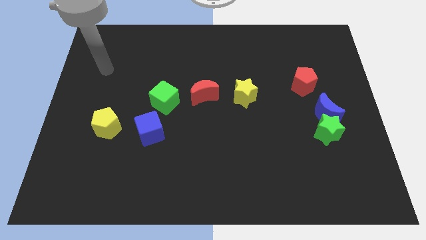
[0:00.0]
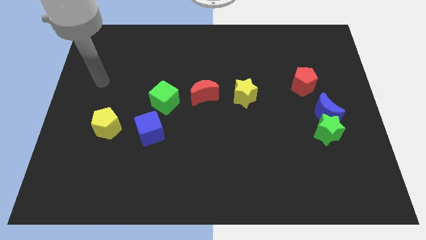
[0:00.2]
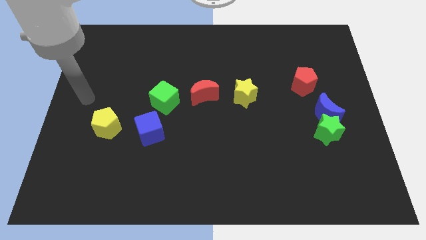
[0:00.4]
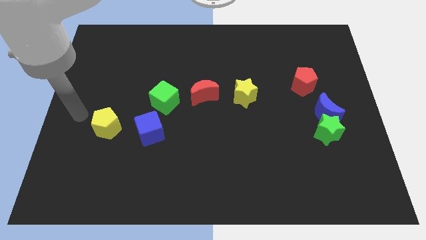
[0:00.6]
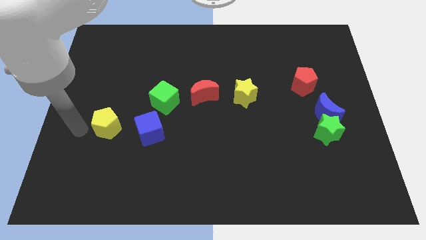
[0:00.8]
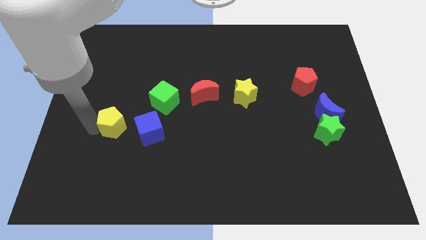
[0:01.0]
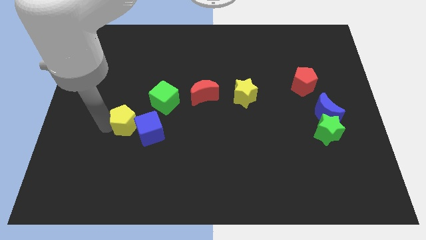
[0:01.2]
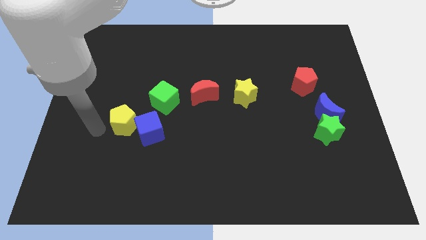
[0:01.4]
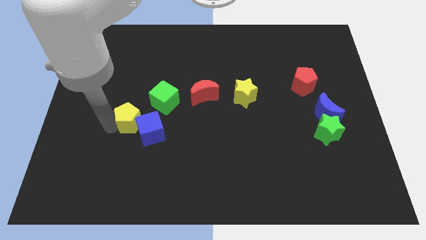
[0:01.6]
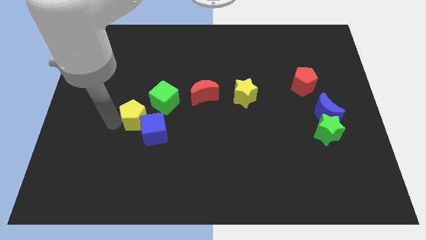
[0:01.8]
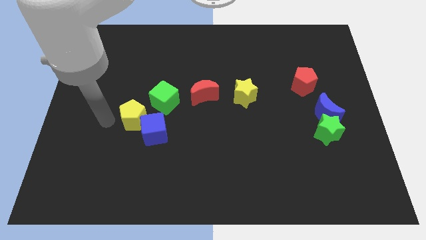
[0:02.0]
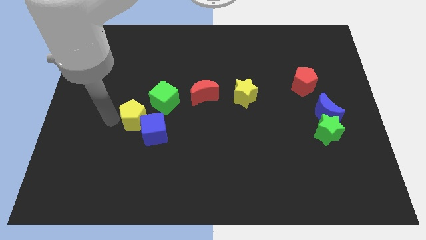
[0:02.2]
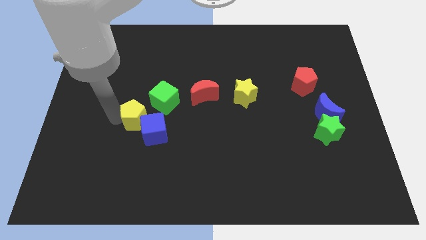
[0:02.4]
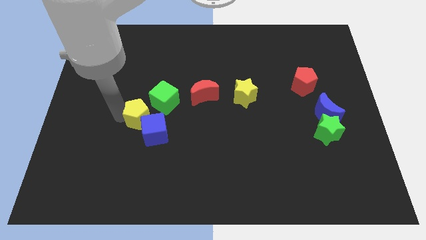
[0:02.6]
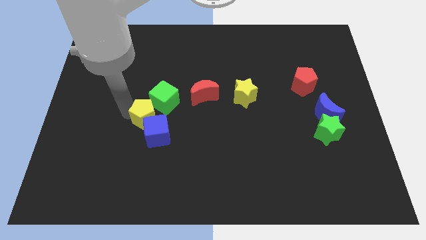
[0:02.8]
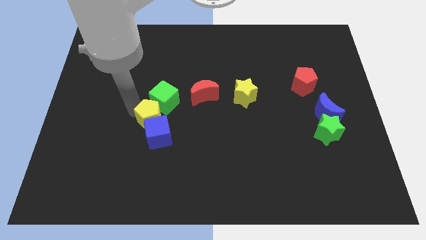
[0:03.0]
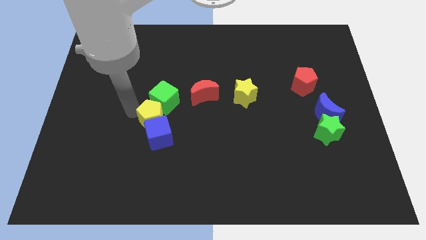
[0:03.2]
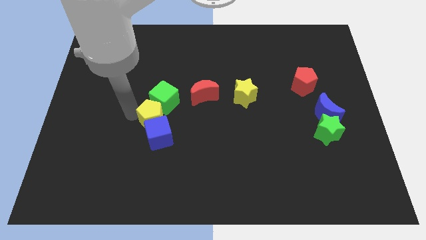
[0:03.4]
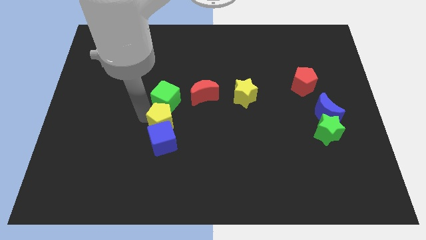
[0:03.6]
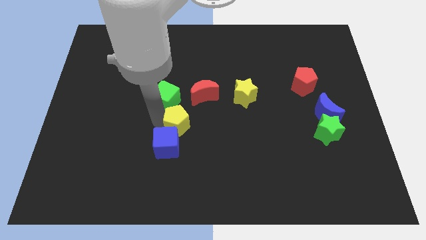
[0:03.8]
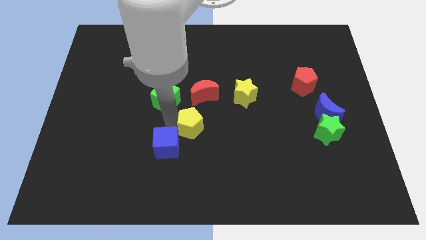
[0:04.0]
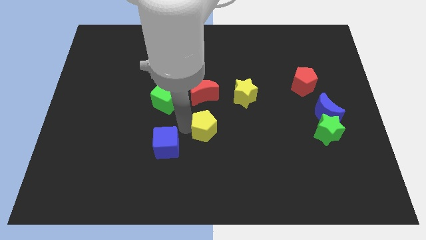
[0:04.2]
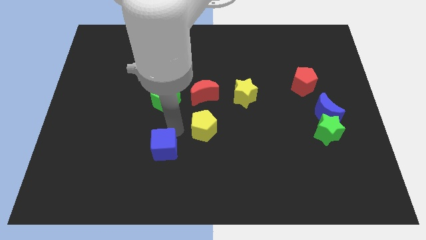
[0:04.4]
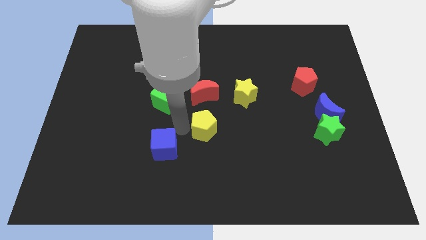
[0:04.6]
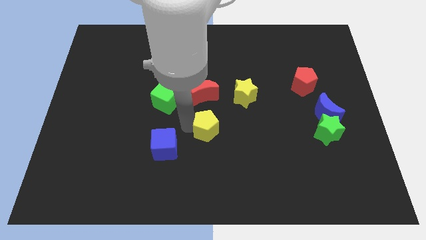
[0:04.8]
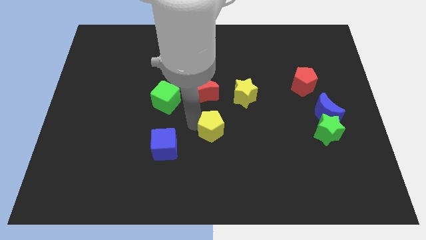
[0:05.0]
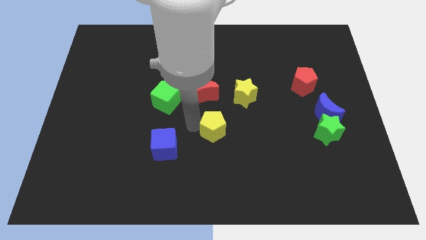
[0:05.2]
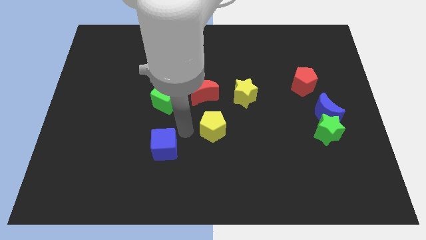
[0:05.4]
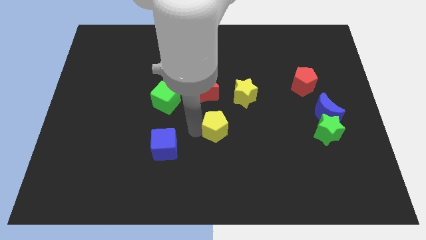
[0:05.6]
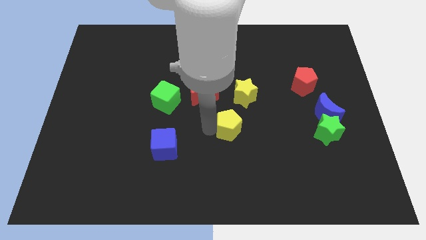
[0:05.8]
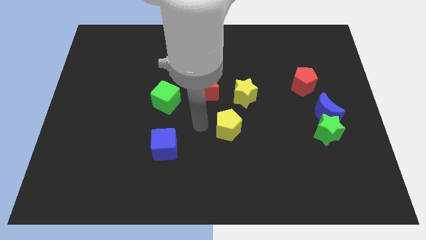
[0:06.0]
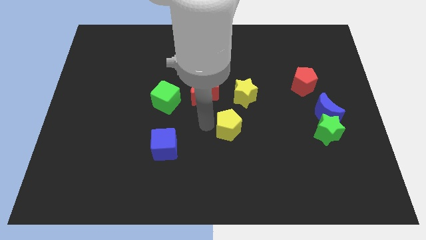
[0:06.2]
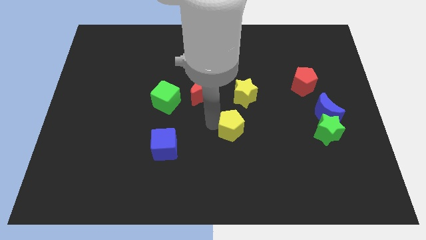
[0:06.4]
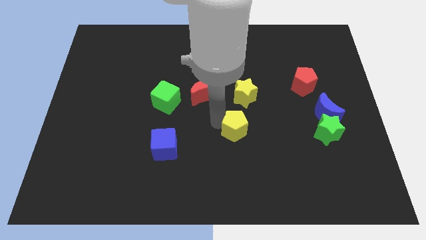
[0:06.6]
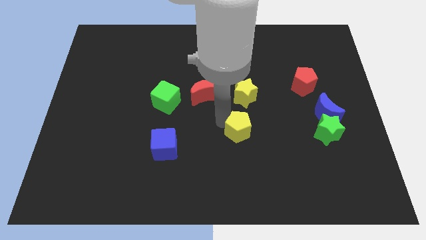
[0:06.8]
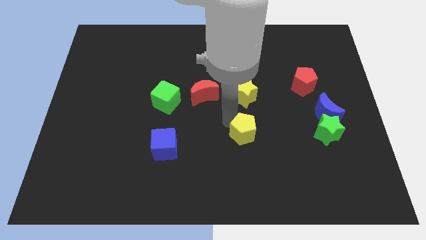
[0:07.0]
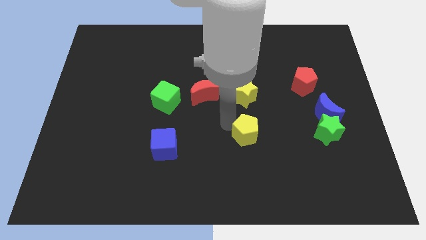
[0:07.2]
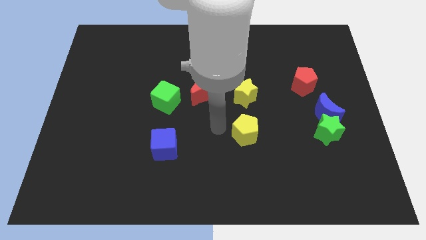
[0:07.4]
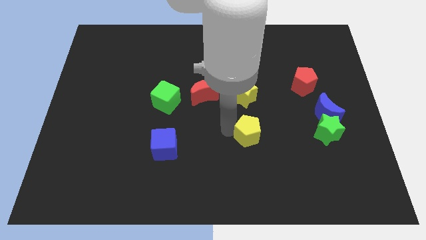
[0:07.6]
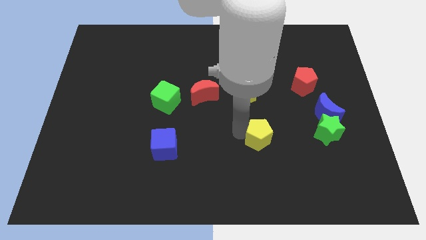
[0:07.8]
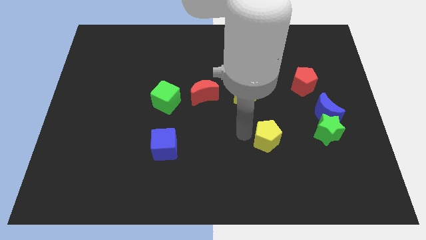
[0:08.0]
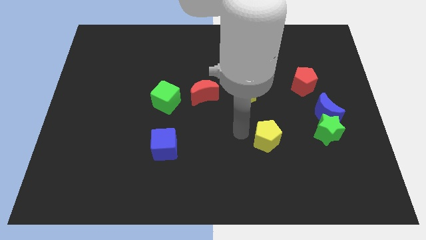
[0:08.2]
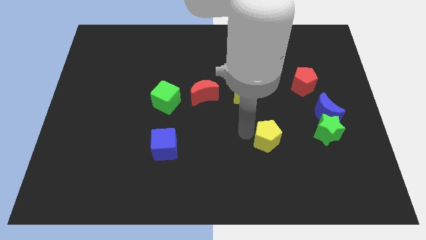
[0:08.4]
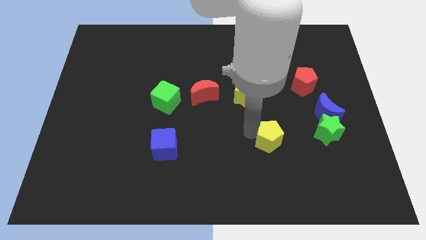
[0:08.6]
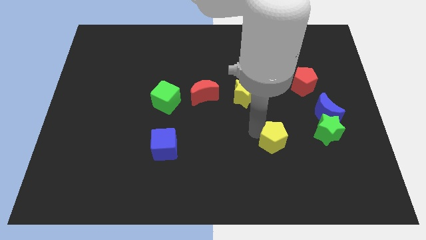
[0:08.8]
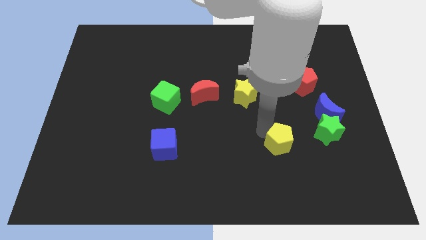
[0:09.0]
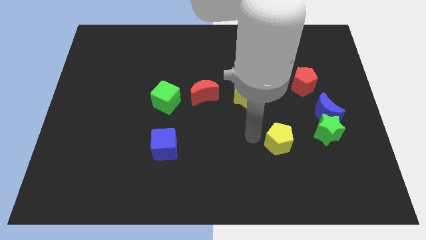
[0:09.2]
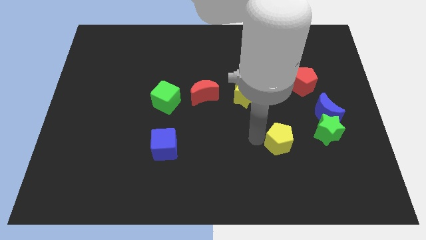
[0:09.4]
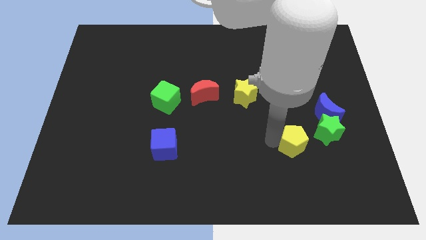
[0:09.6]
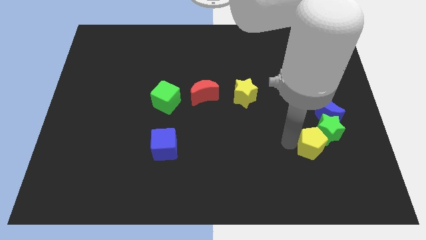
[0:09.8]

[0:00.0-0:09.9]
push the yellow pentagon to the bottom side of the blue moon

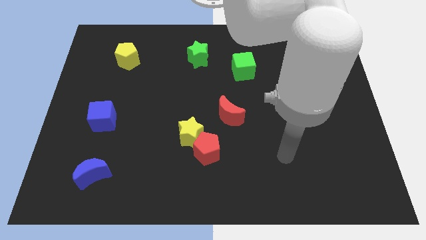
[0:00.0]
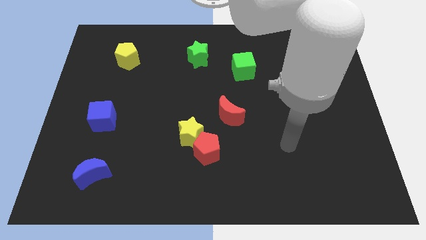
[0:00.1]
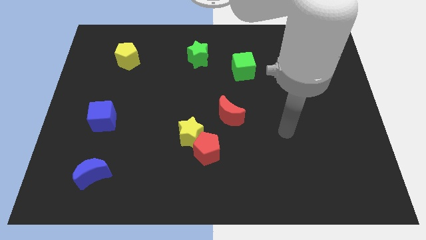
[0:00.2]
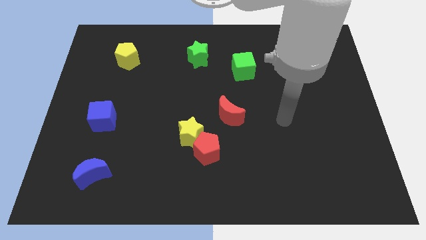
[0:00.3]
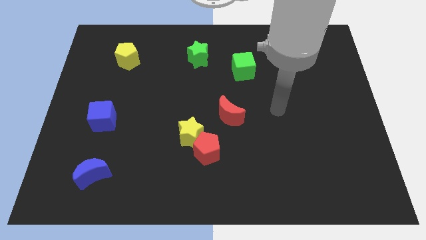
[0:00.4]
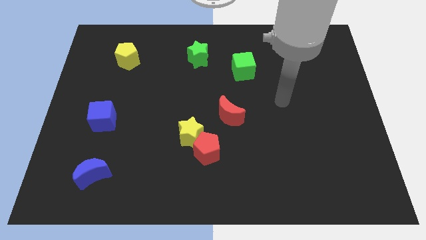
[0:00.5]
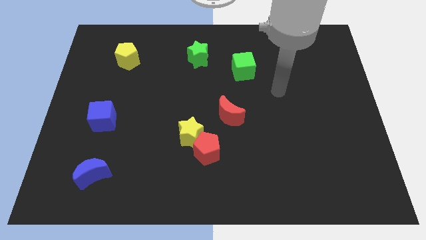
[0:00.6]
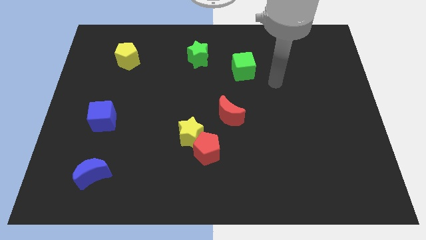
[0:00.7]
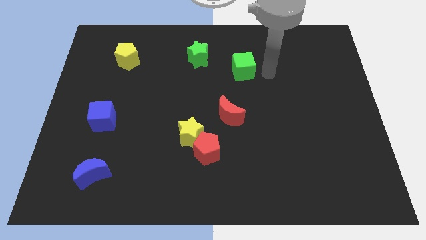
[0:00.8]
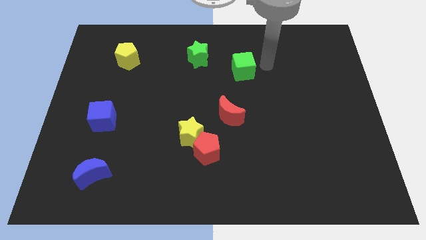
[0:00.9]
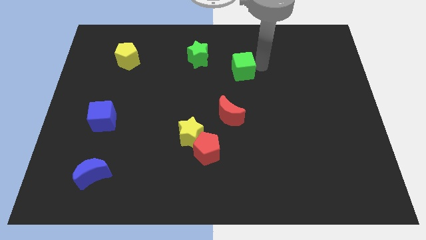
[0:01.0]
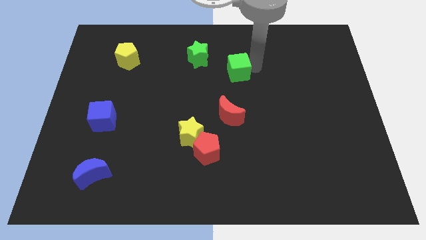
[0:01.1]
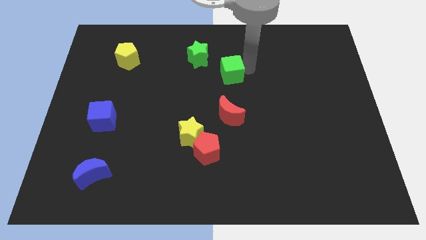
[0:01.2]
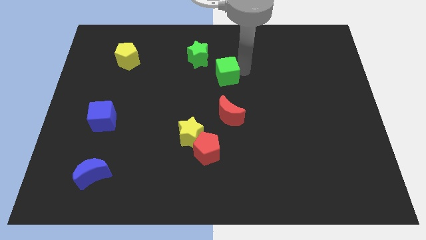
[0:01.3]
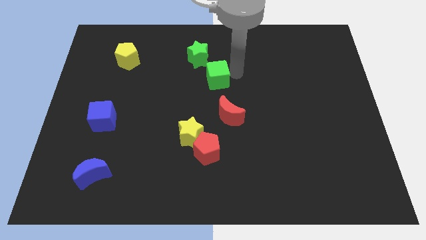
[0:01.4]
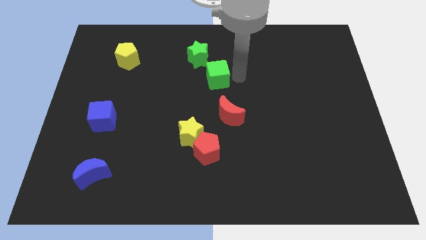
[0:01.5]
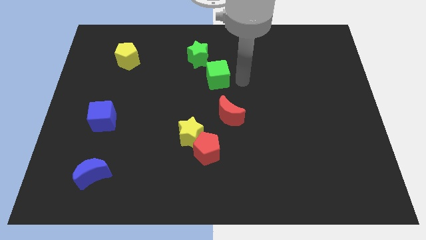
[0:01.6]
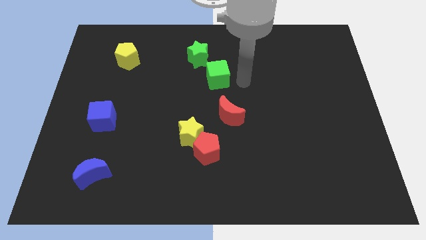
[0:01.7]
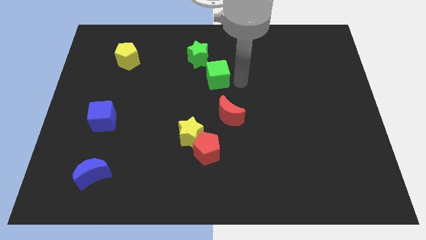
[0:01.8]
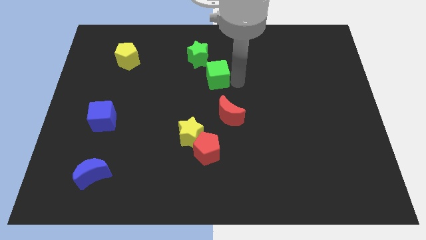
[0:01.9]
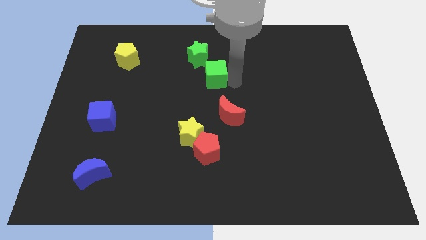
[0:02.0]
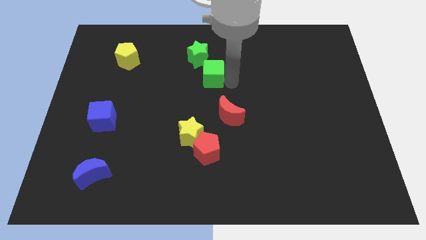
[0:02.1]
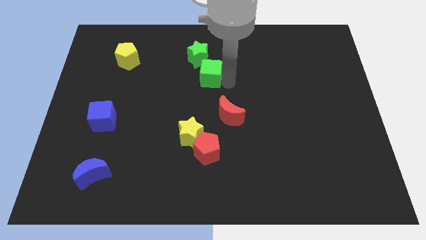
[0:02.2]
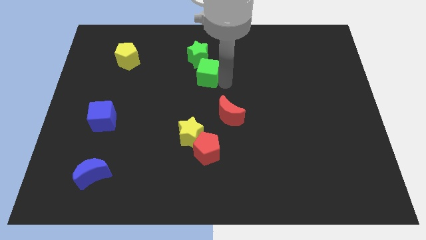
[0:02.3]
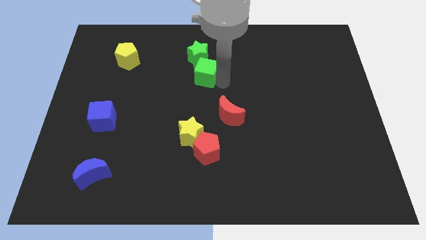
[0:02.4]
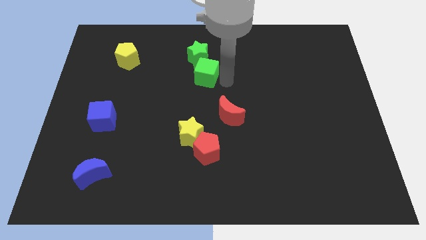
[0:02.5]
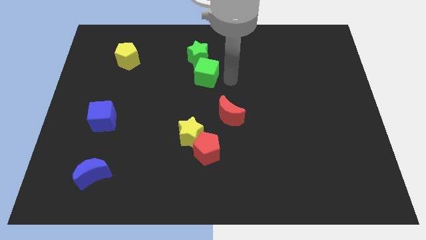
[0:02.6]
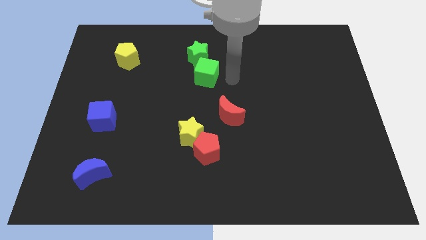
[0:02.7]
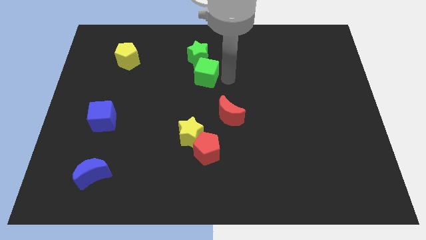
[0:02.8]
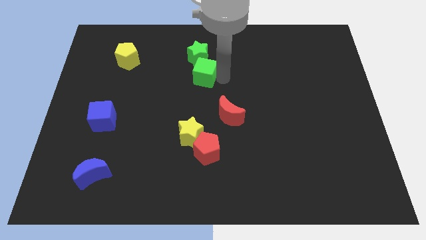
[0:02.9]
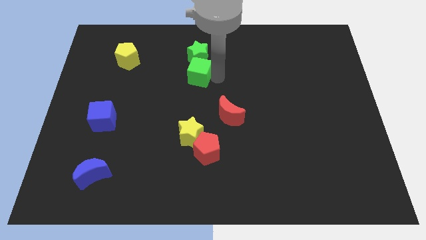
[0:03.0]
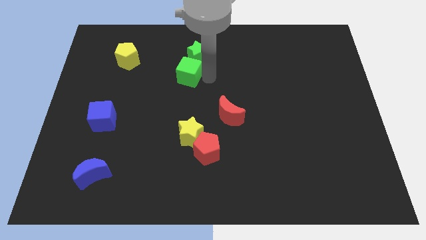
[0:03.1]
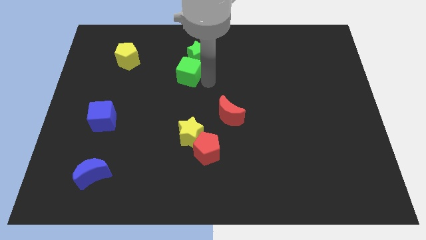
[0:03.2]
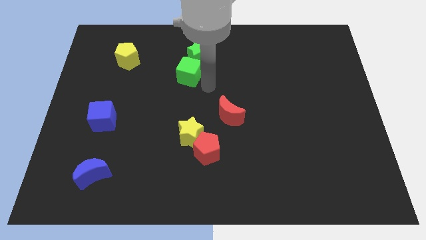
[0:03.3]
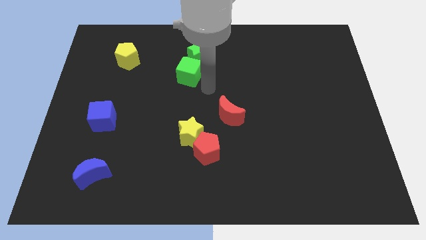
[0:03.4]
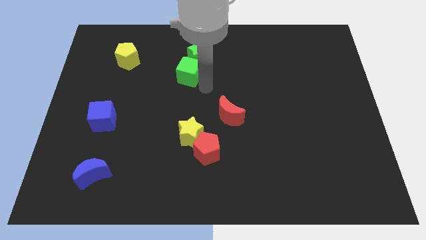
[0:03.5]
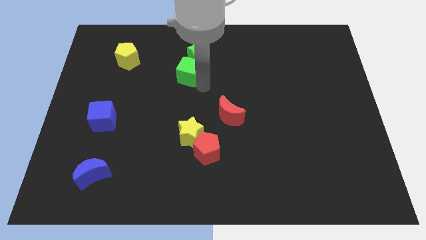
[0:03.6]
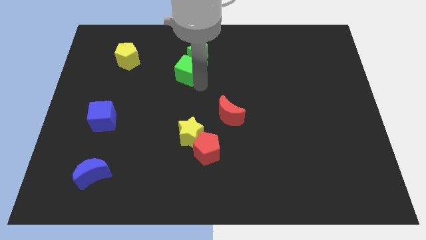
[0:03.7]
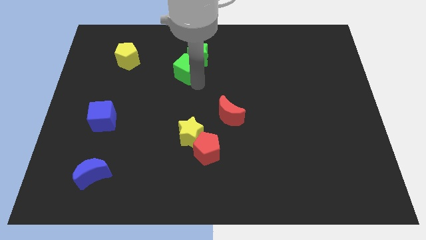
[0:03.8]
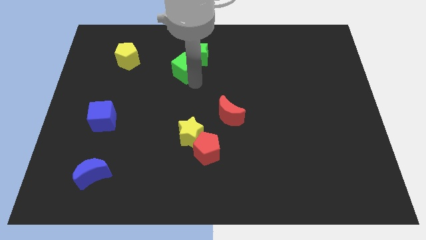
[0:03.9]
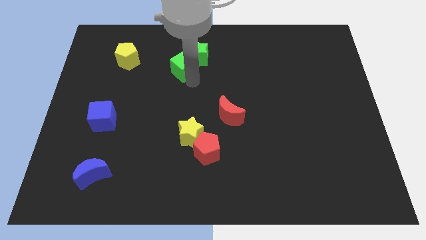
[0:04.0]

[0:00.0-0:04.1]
move the green cube just left of the green star
